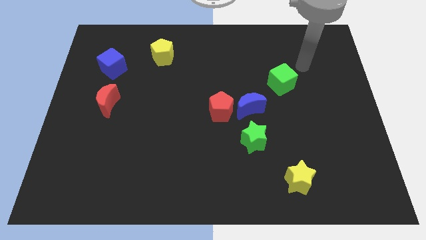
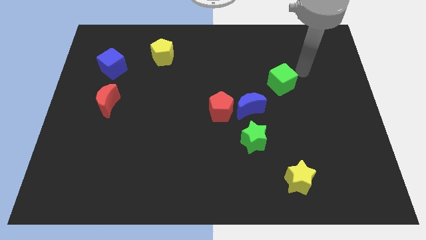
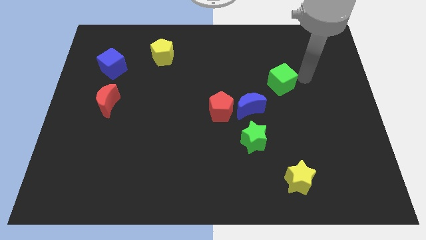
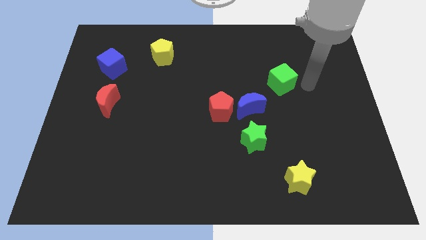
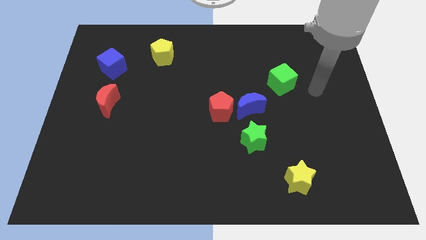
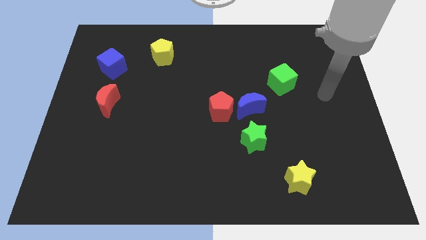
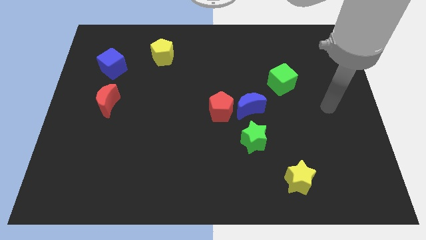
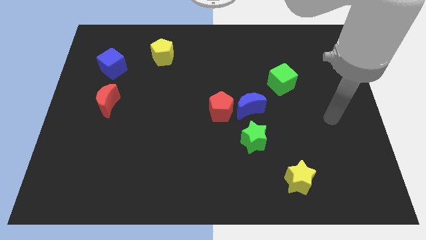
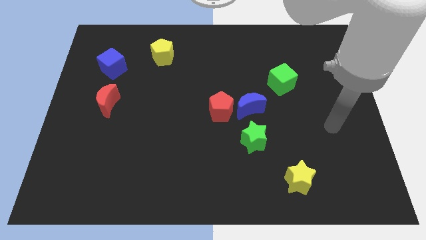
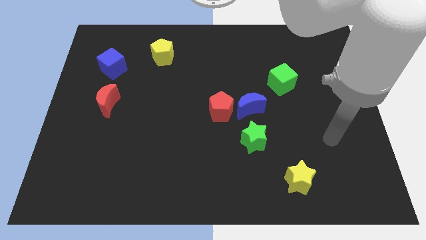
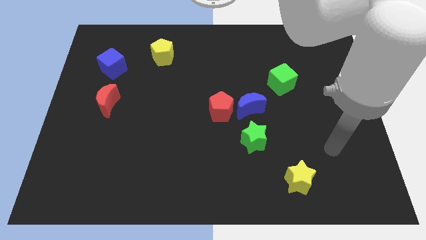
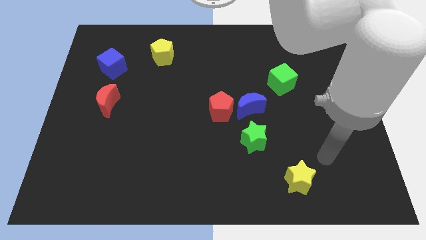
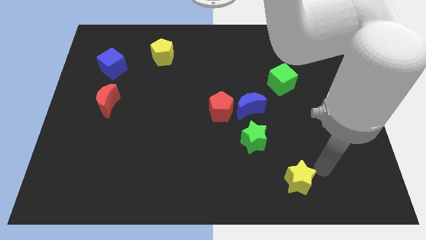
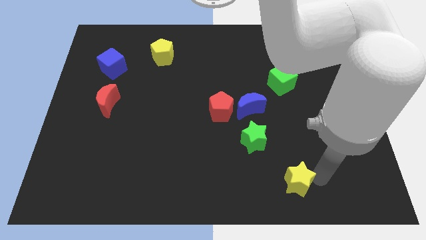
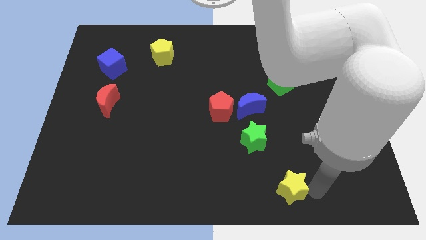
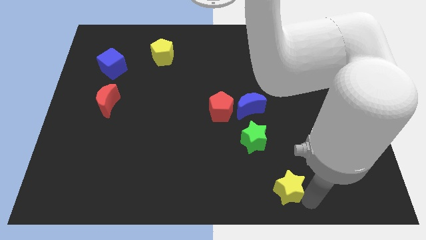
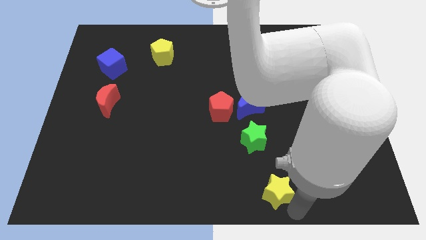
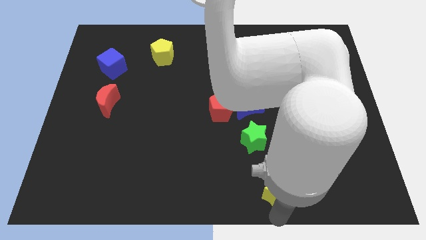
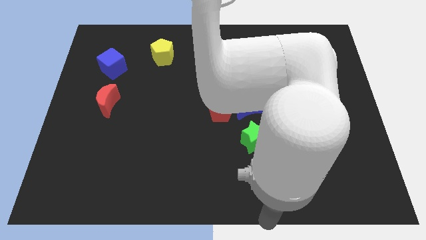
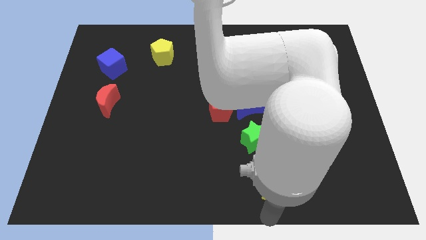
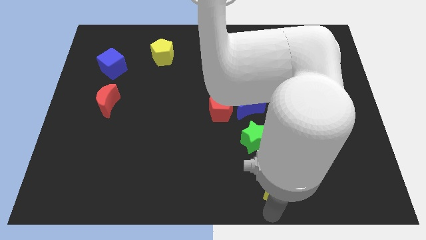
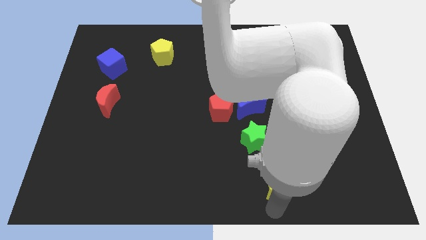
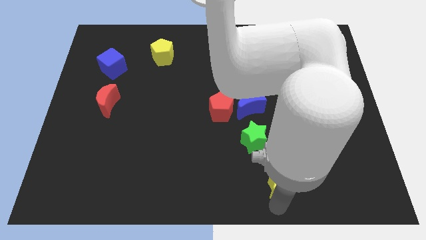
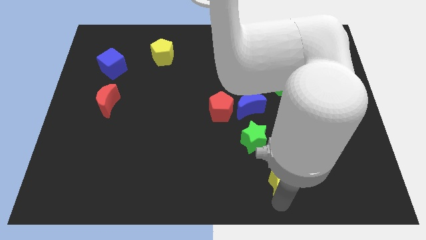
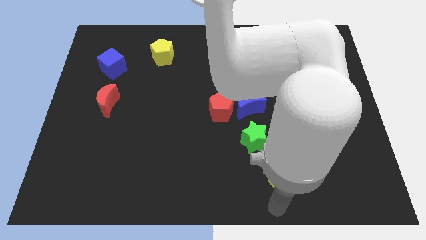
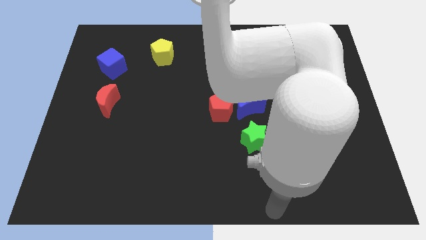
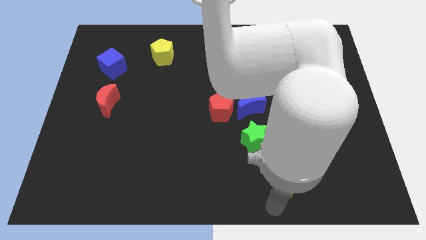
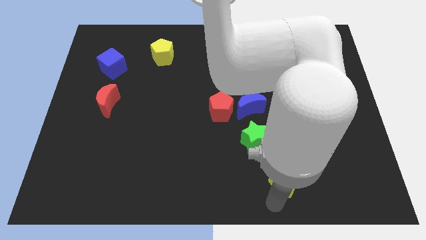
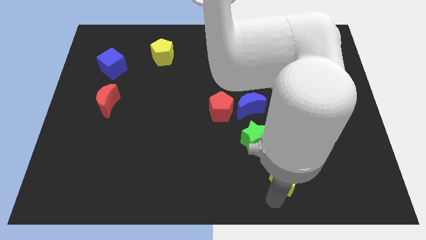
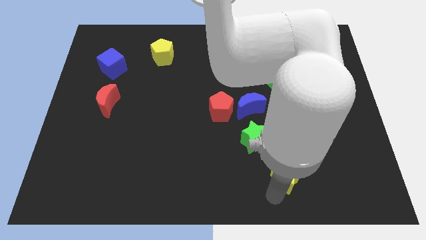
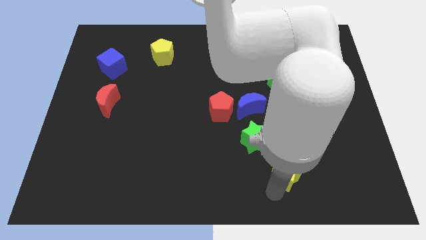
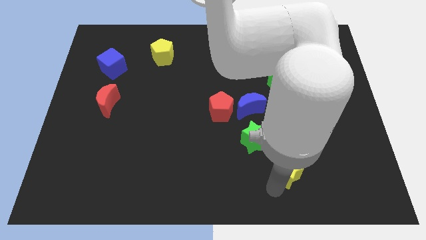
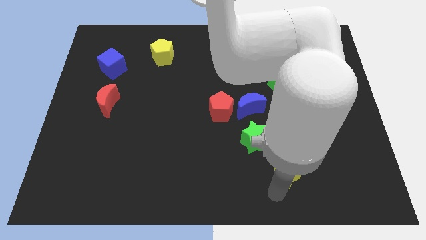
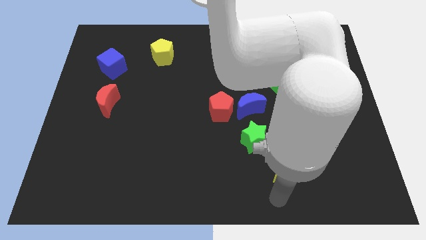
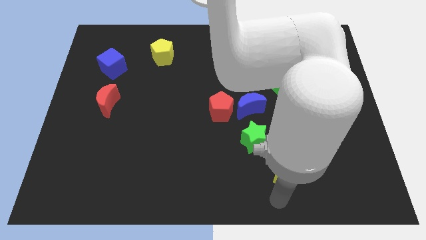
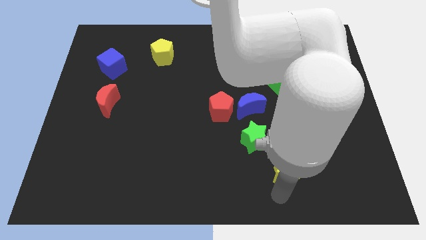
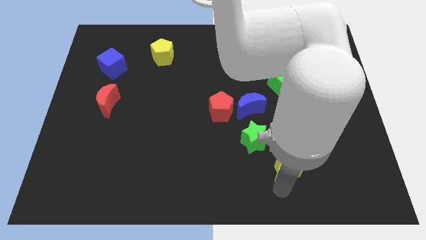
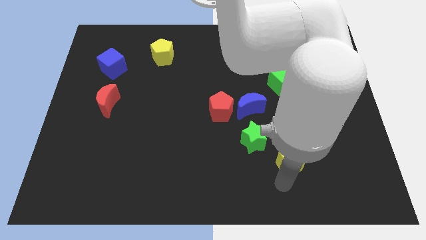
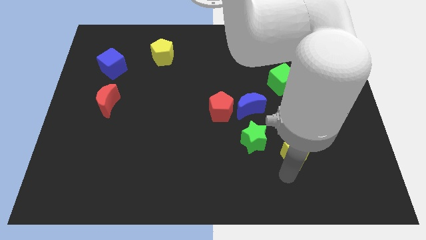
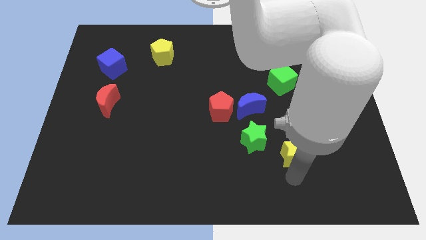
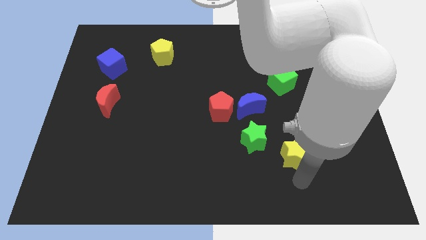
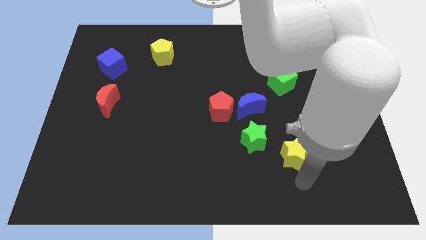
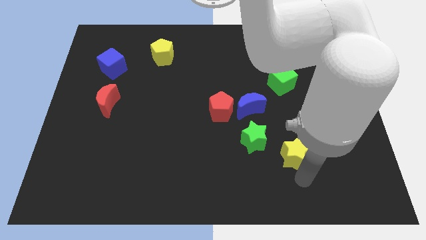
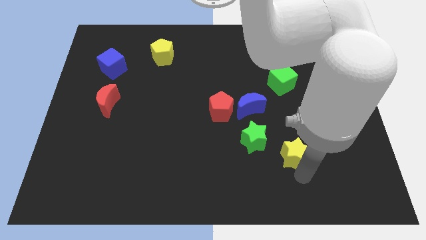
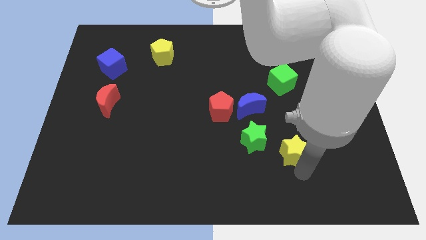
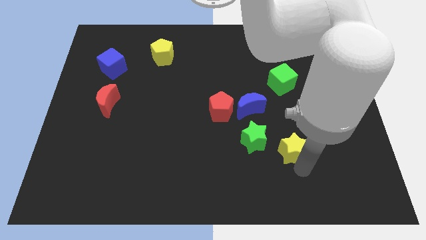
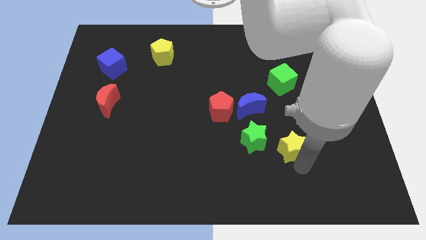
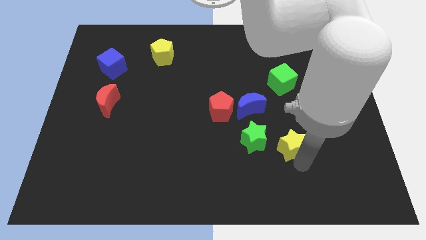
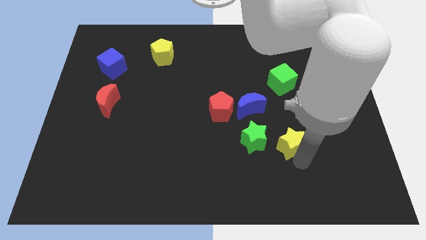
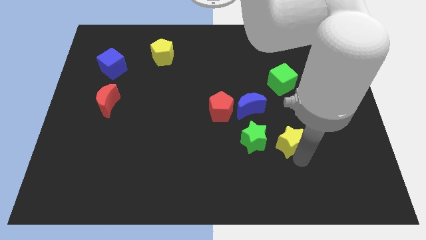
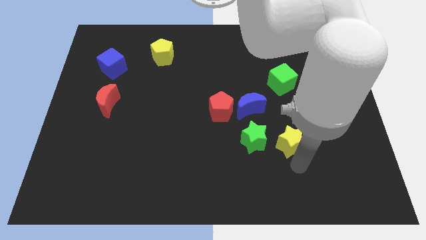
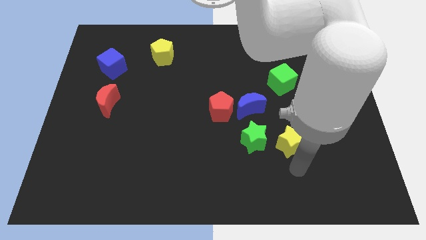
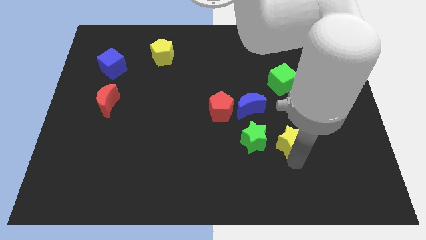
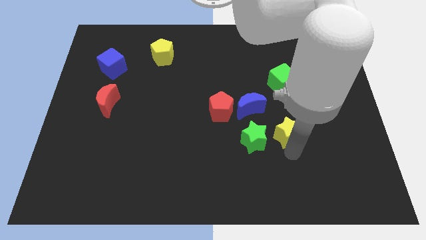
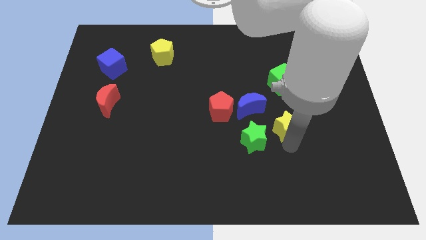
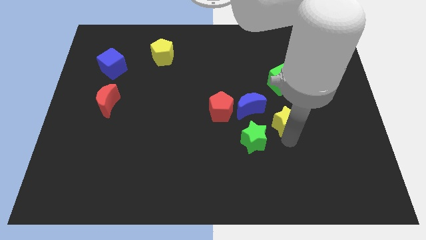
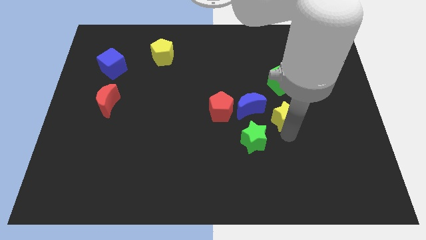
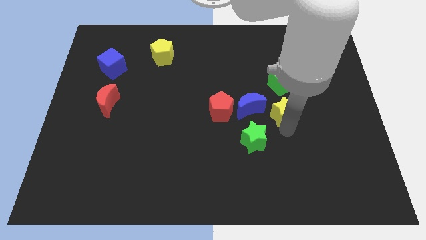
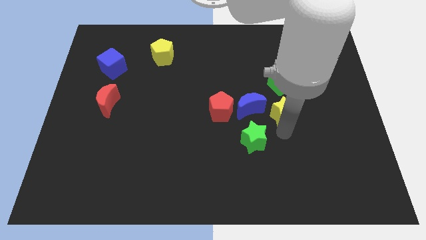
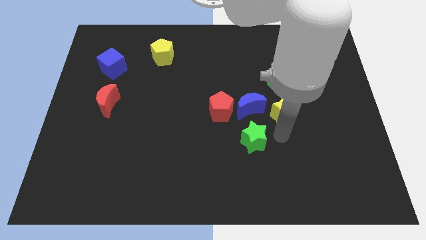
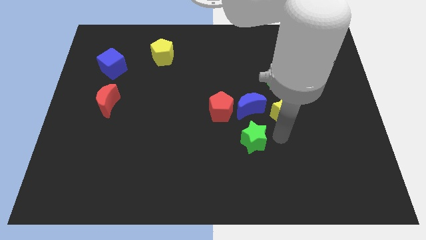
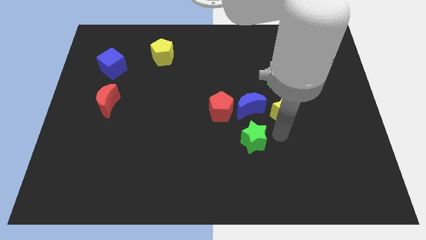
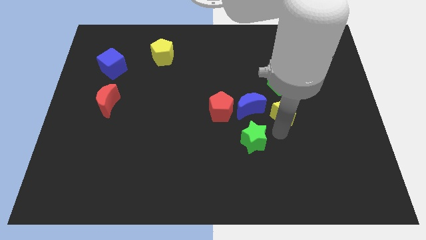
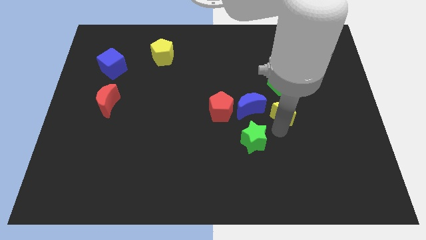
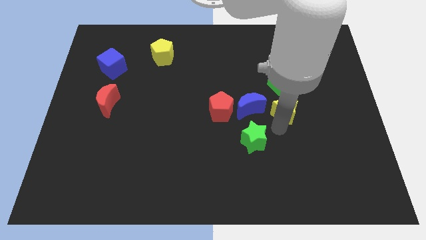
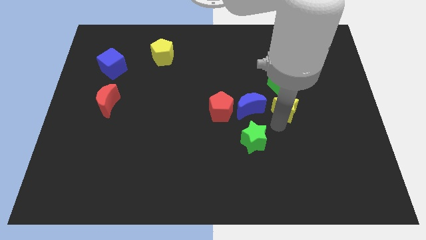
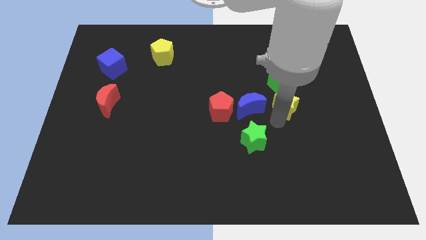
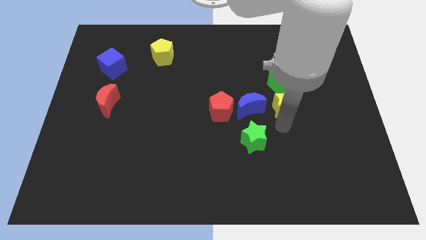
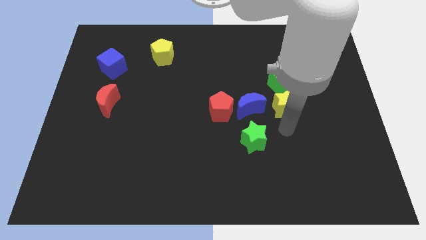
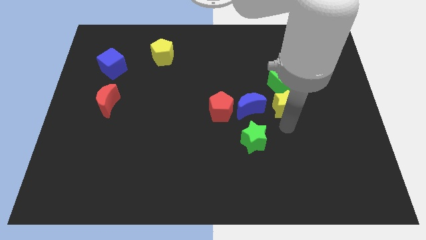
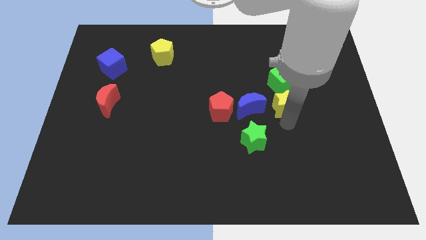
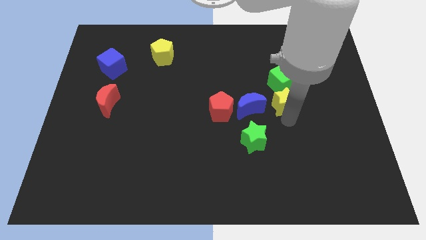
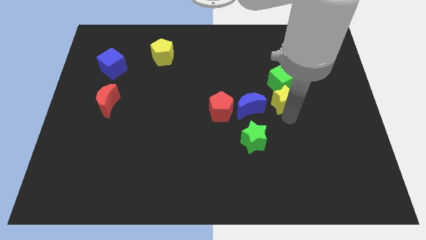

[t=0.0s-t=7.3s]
push the yellow star next to the green cube
